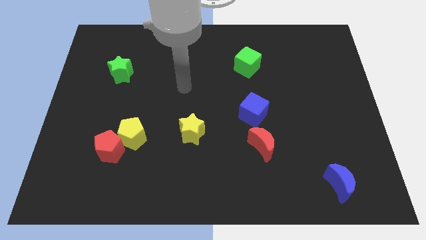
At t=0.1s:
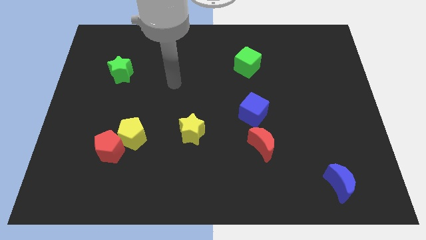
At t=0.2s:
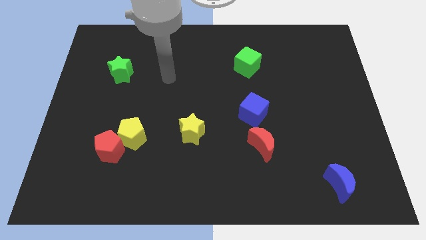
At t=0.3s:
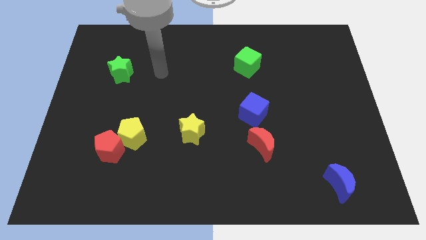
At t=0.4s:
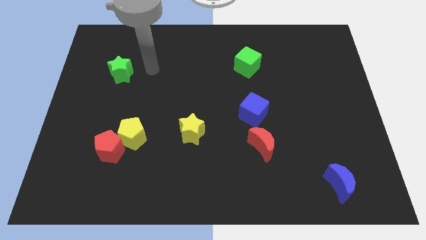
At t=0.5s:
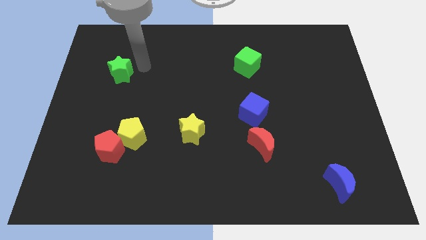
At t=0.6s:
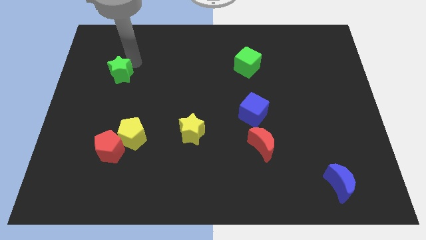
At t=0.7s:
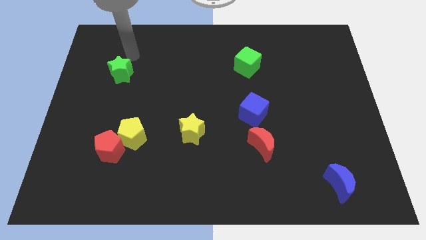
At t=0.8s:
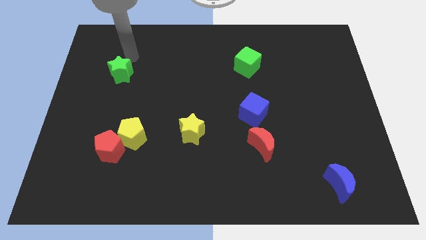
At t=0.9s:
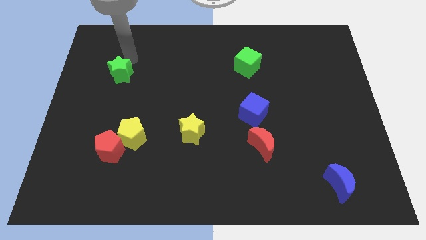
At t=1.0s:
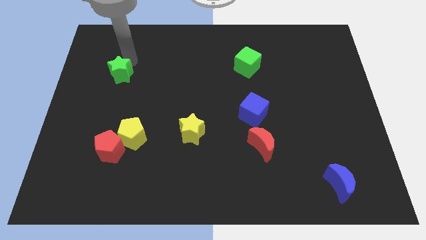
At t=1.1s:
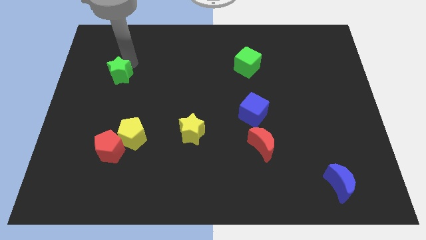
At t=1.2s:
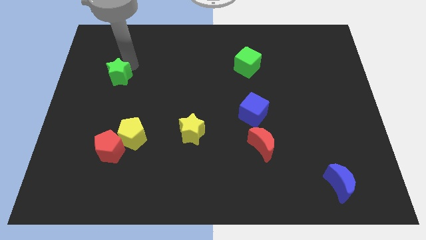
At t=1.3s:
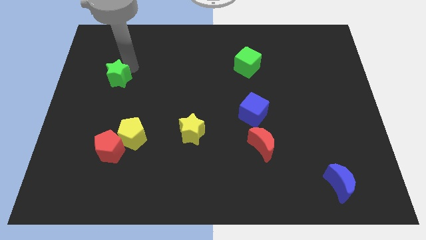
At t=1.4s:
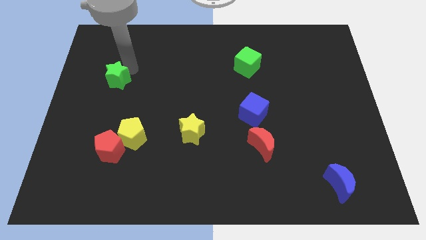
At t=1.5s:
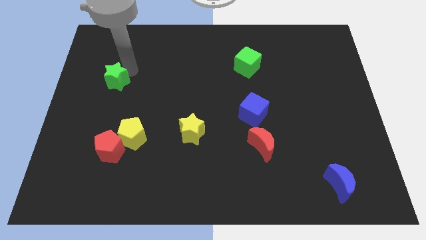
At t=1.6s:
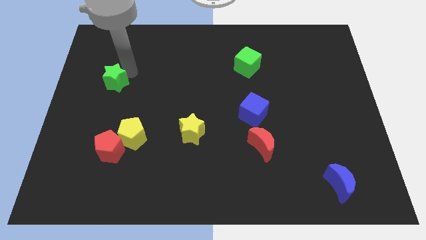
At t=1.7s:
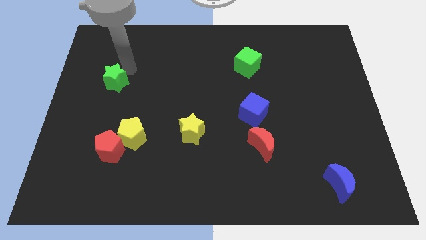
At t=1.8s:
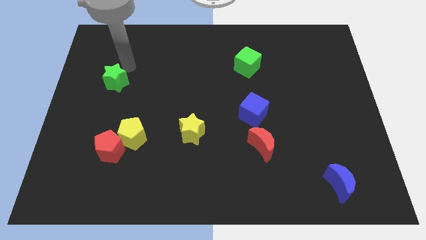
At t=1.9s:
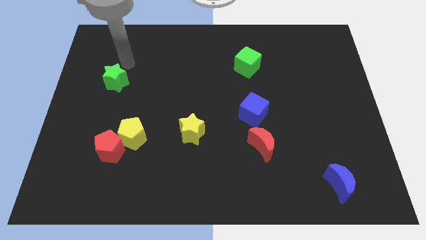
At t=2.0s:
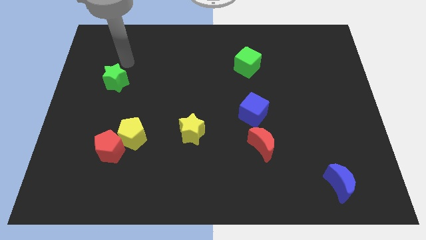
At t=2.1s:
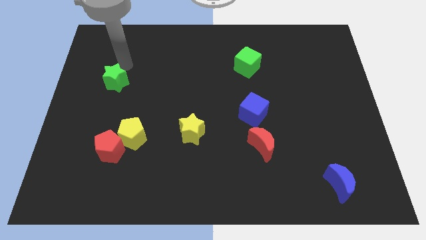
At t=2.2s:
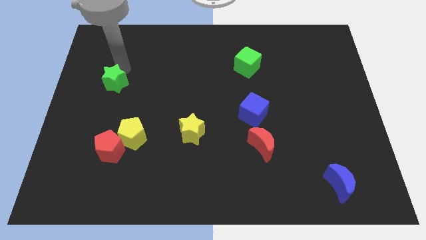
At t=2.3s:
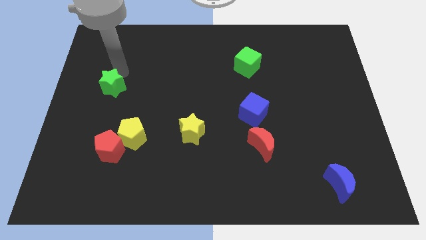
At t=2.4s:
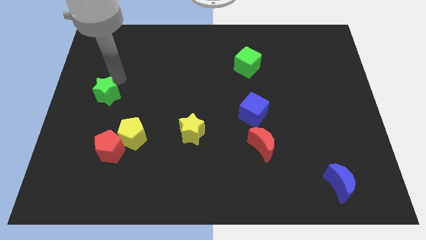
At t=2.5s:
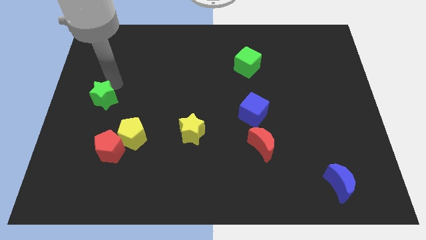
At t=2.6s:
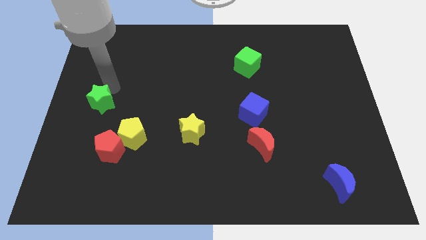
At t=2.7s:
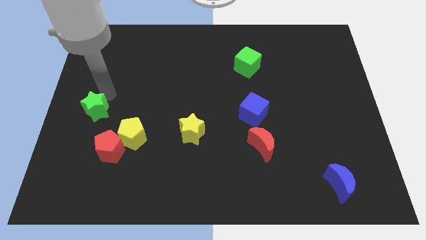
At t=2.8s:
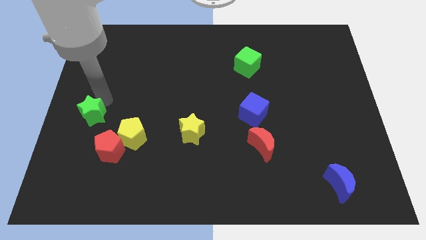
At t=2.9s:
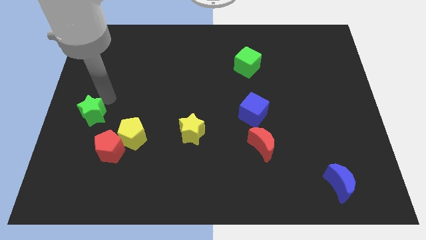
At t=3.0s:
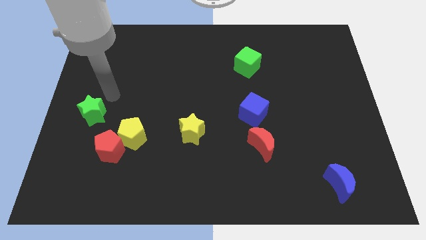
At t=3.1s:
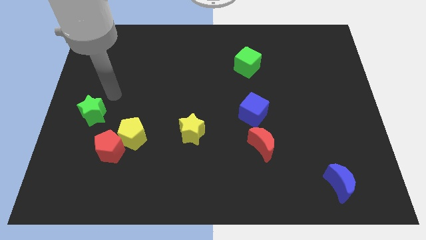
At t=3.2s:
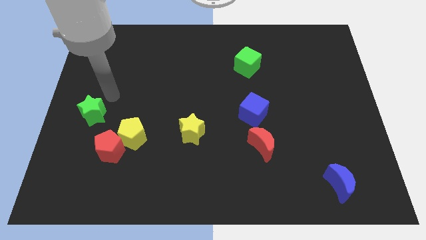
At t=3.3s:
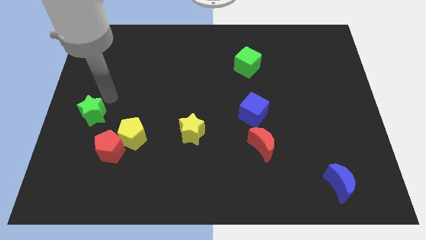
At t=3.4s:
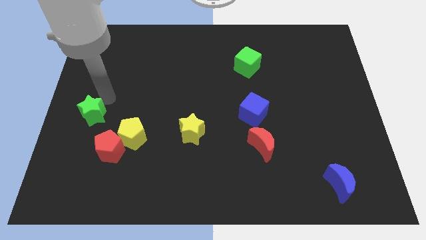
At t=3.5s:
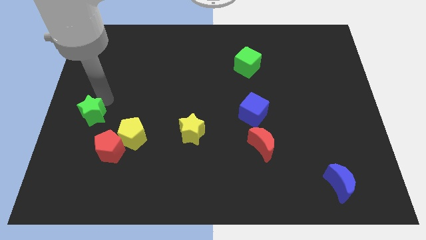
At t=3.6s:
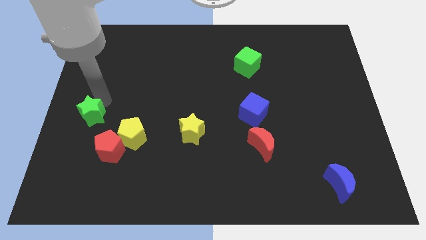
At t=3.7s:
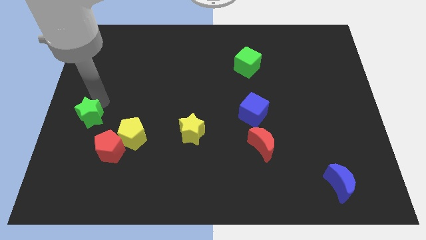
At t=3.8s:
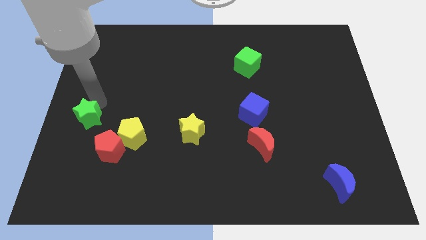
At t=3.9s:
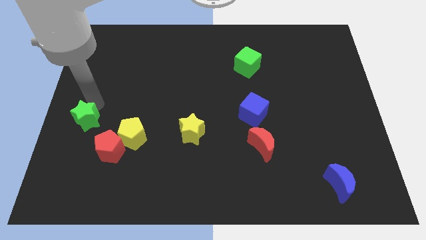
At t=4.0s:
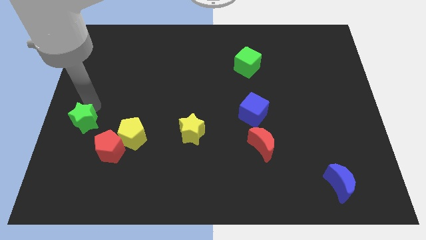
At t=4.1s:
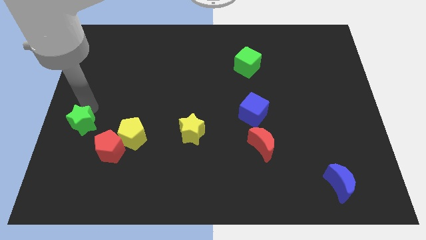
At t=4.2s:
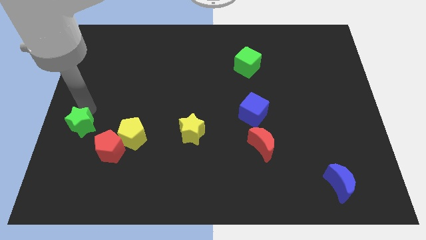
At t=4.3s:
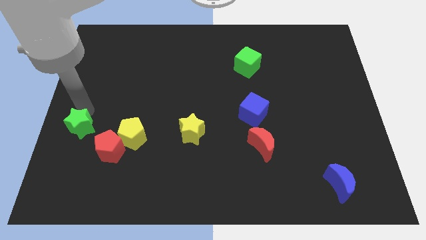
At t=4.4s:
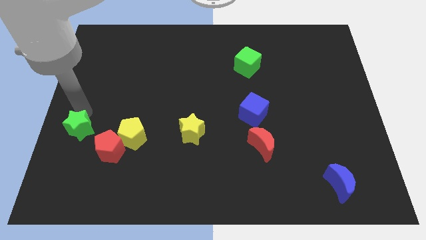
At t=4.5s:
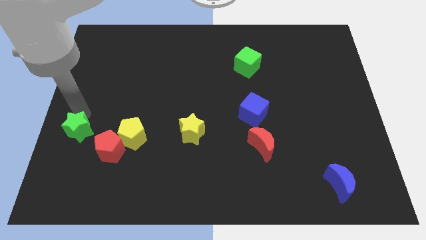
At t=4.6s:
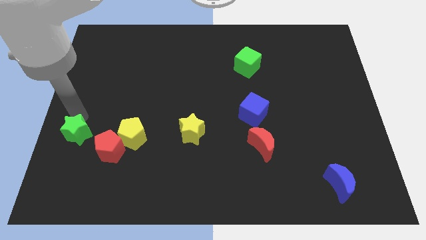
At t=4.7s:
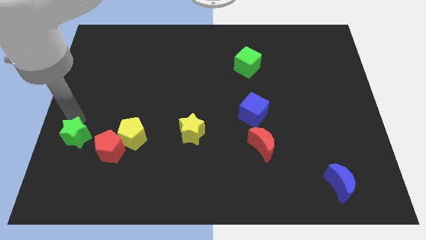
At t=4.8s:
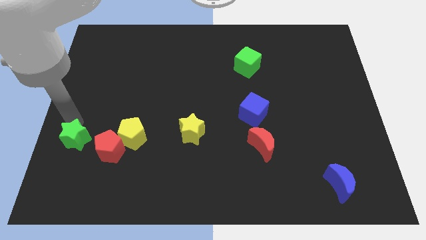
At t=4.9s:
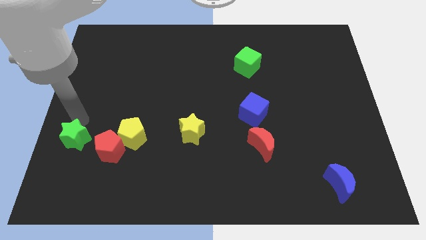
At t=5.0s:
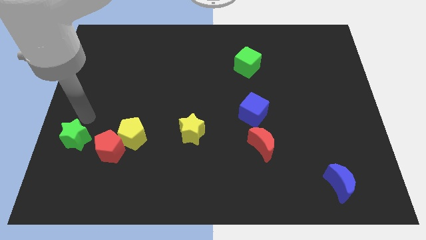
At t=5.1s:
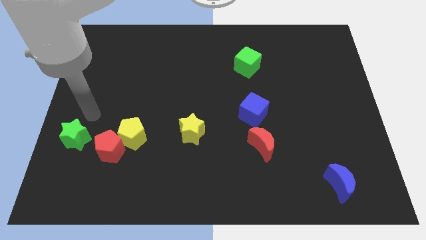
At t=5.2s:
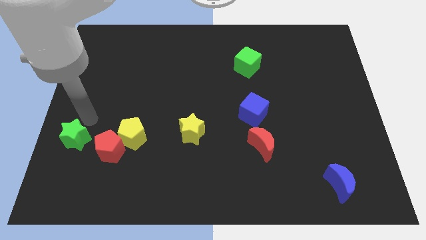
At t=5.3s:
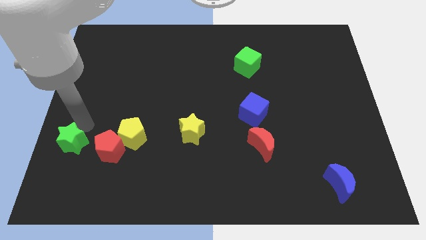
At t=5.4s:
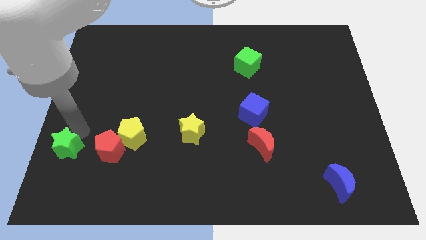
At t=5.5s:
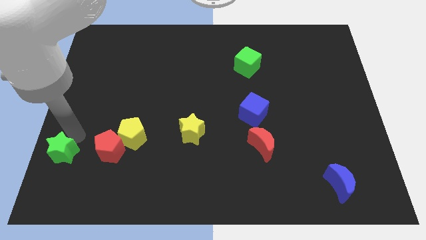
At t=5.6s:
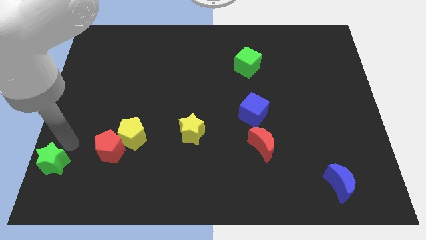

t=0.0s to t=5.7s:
push the green star to the bottom left of the board

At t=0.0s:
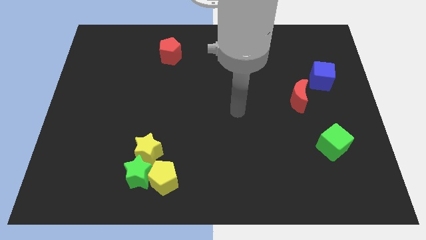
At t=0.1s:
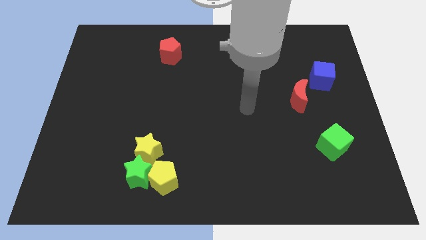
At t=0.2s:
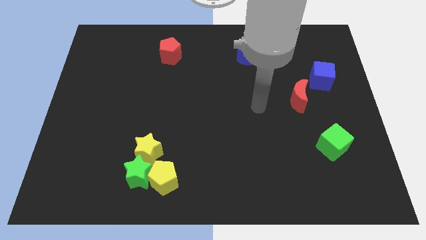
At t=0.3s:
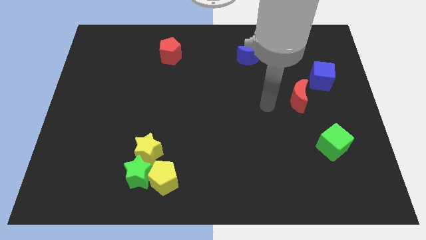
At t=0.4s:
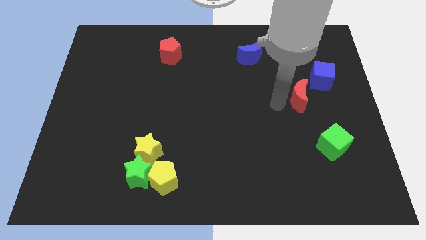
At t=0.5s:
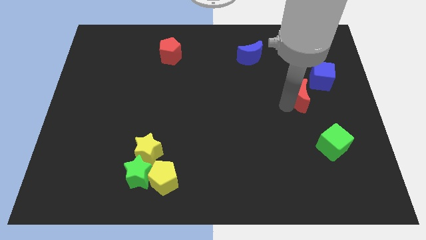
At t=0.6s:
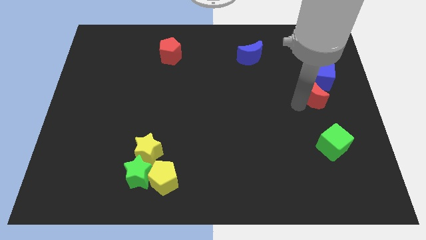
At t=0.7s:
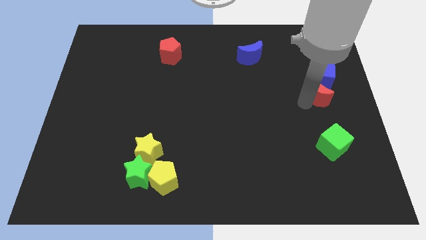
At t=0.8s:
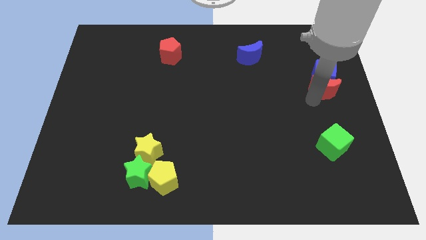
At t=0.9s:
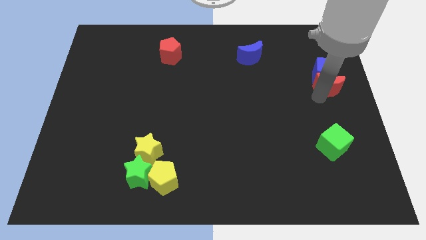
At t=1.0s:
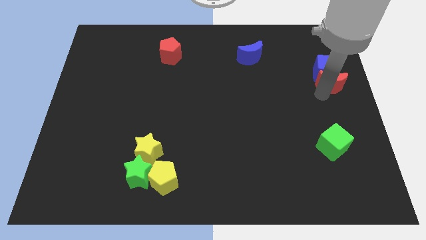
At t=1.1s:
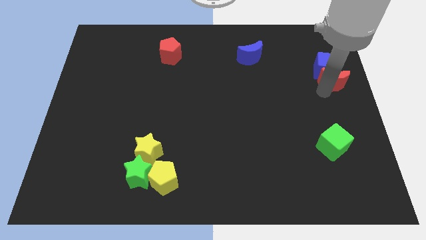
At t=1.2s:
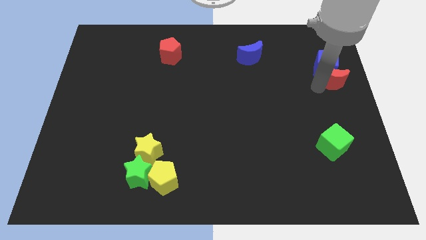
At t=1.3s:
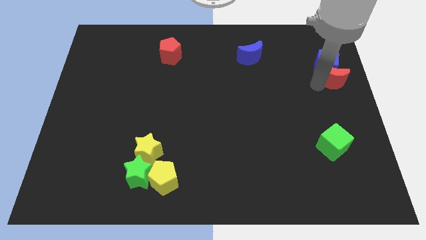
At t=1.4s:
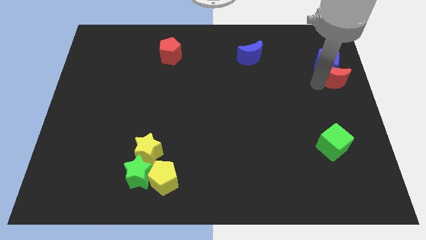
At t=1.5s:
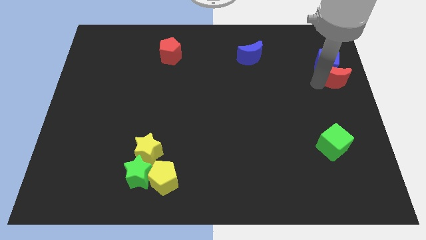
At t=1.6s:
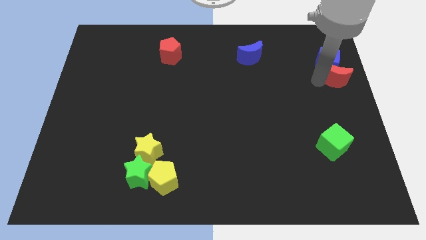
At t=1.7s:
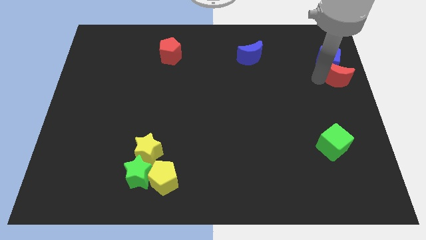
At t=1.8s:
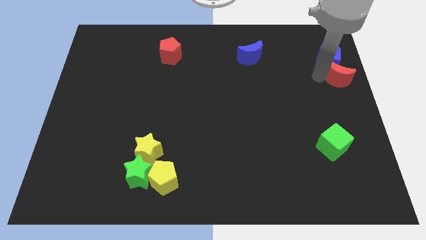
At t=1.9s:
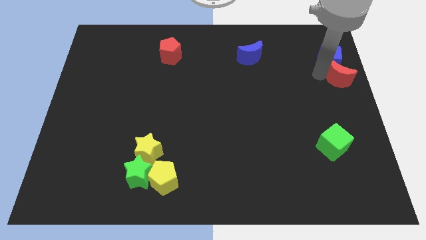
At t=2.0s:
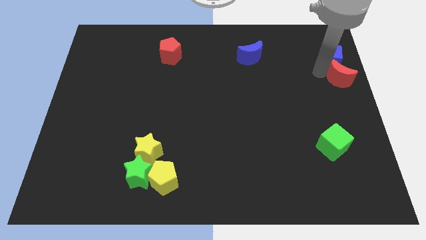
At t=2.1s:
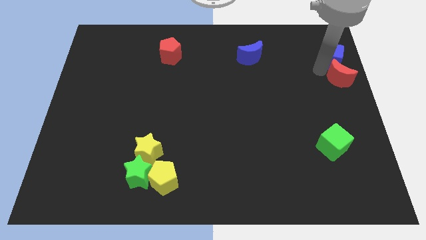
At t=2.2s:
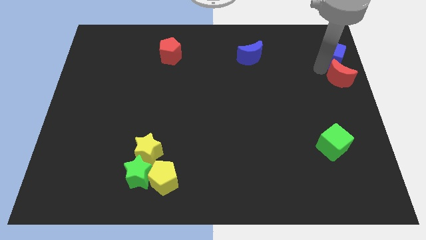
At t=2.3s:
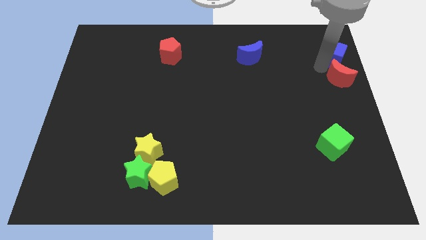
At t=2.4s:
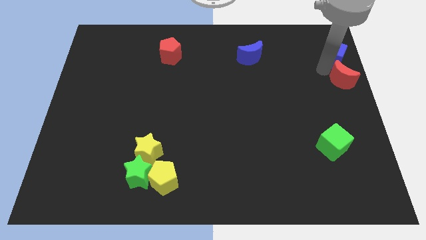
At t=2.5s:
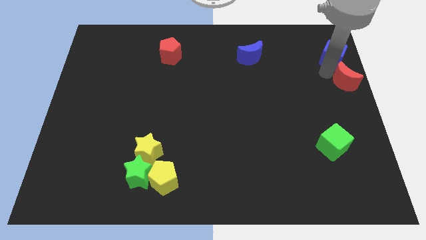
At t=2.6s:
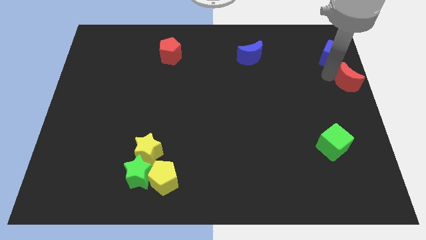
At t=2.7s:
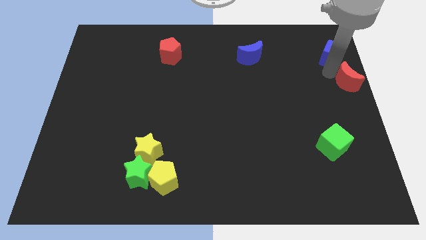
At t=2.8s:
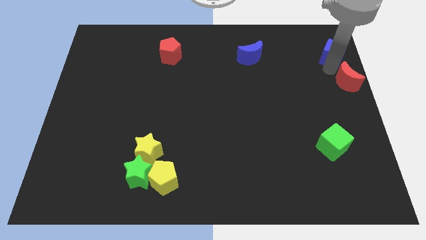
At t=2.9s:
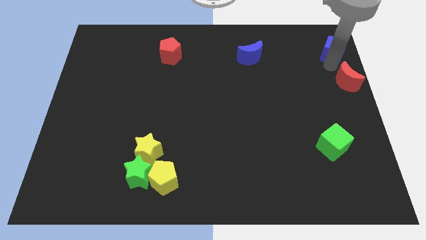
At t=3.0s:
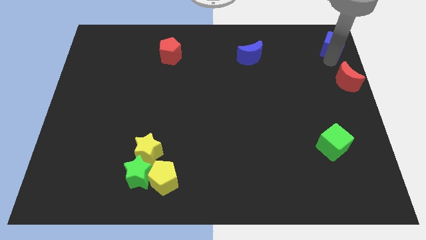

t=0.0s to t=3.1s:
push the blue cube to the upper right corner
